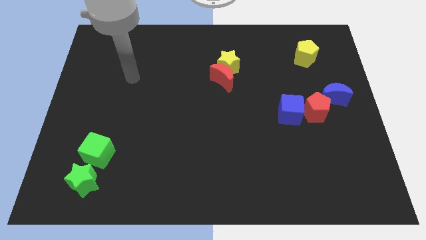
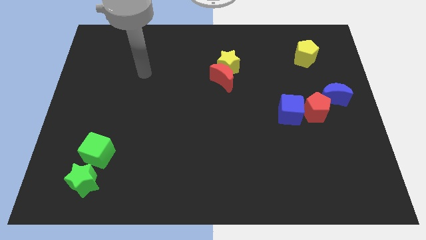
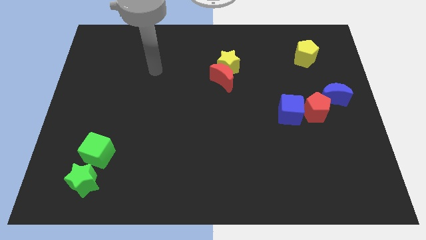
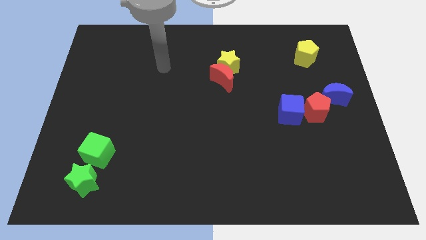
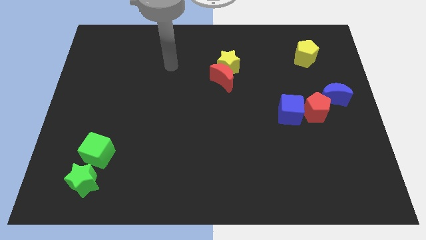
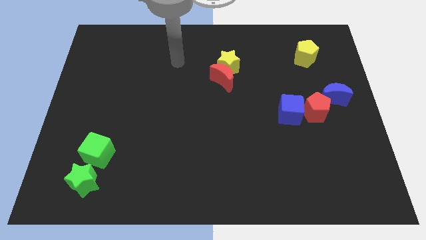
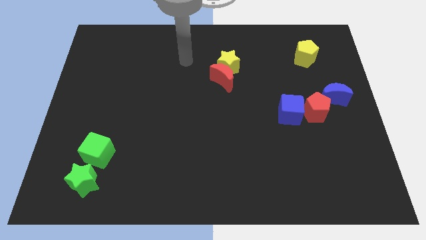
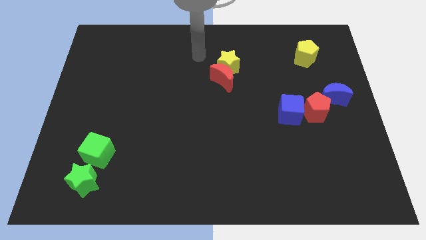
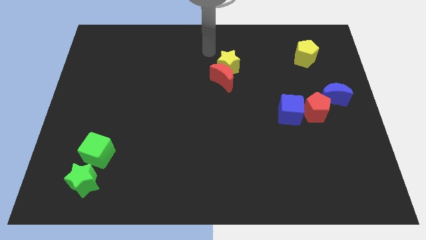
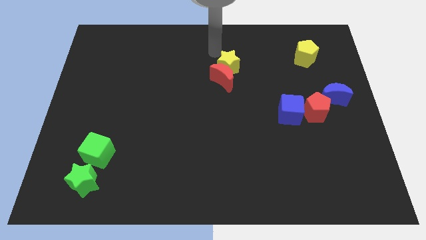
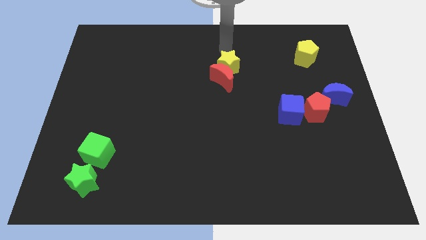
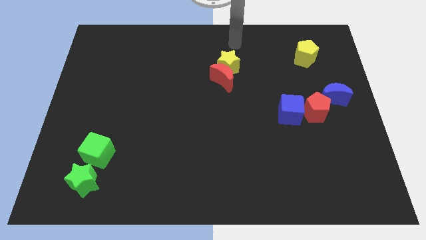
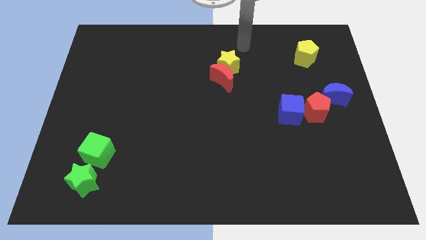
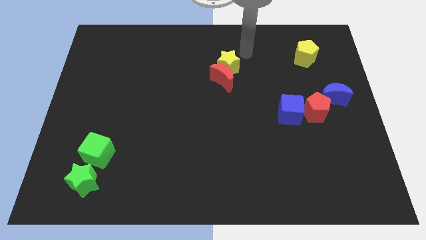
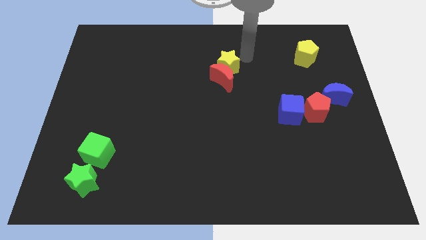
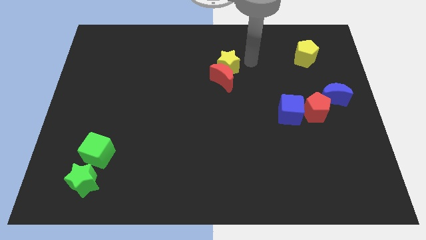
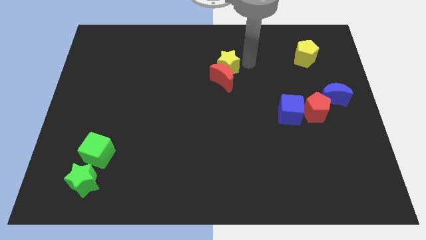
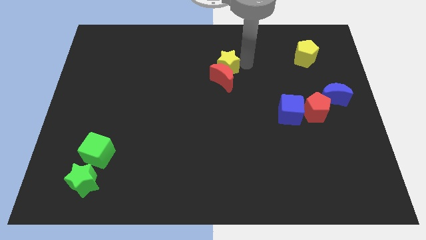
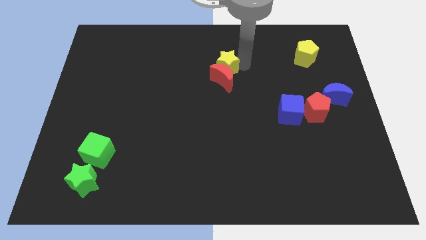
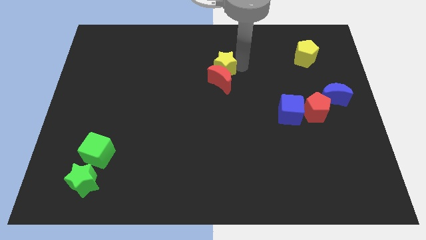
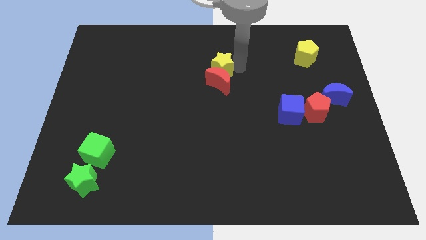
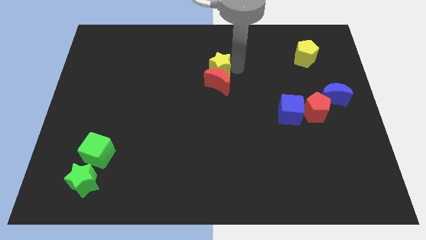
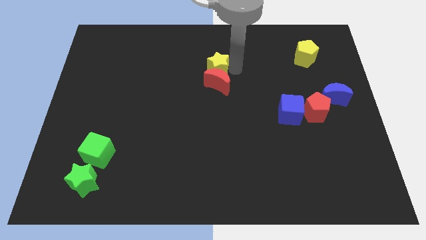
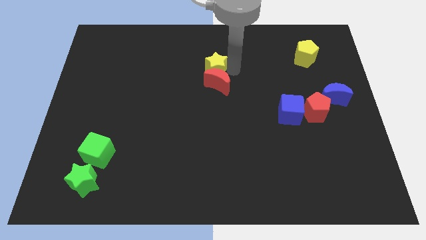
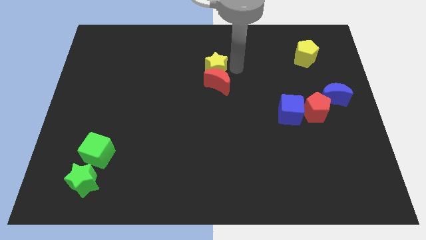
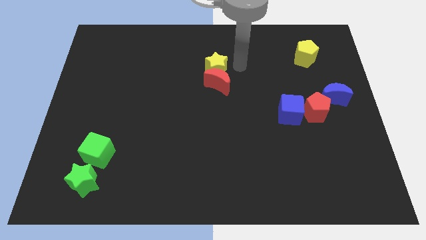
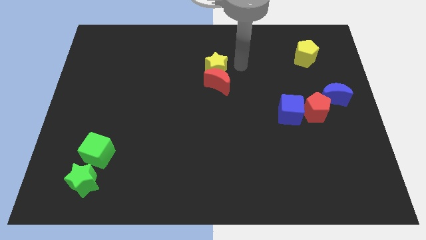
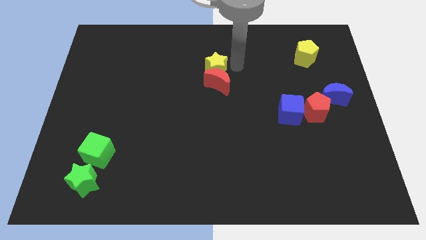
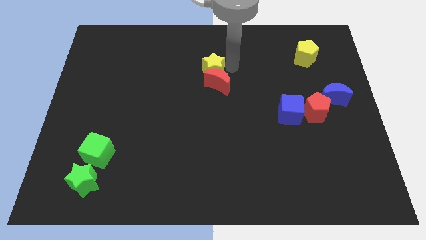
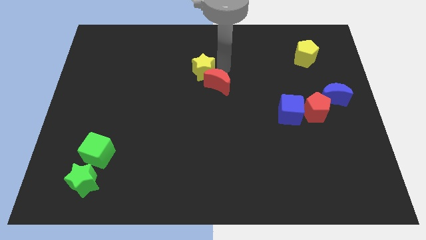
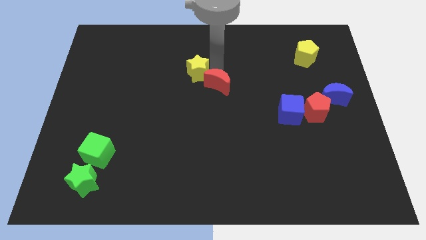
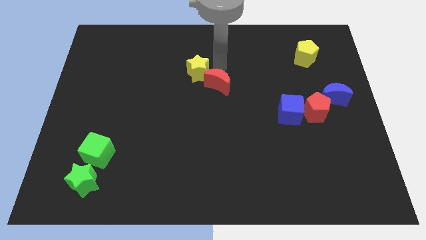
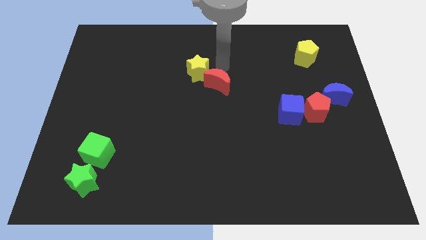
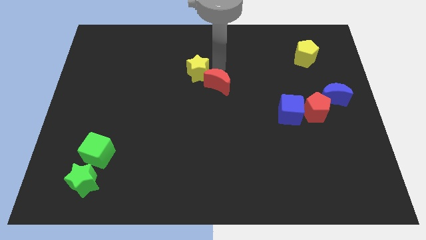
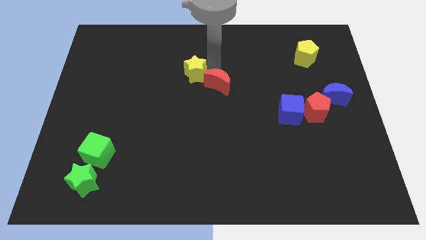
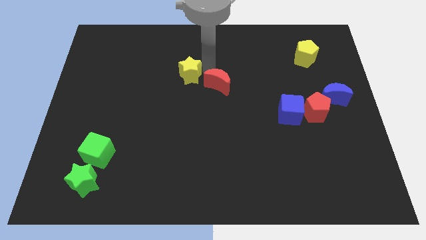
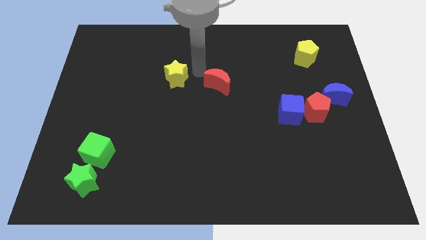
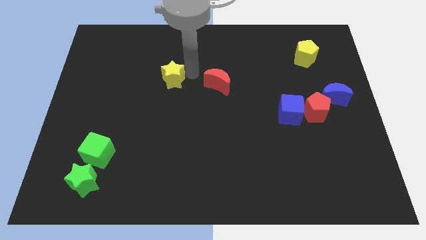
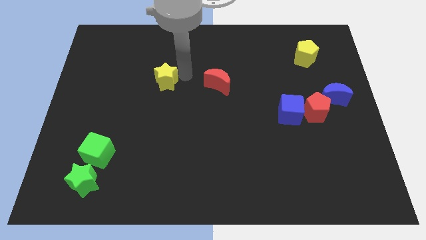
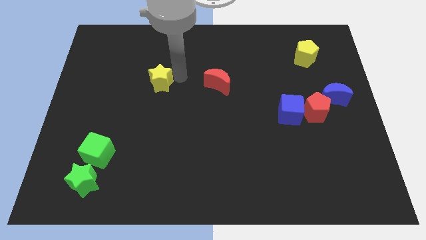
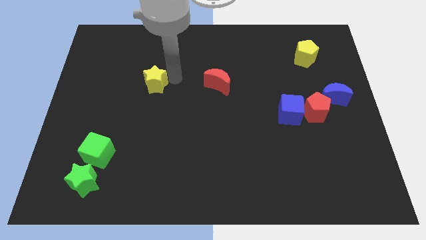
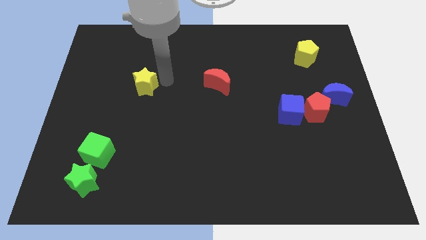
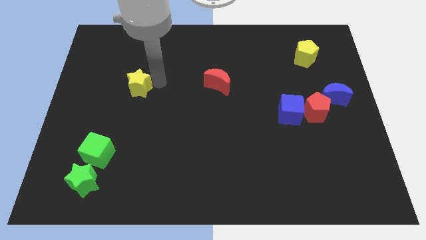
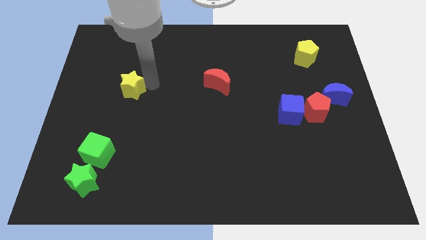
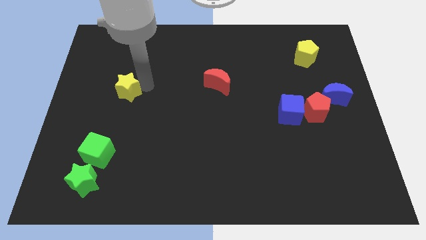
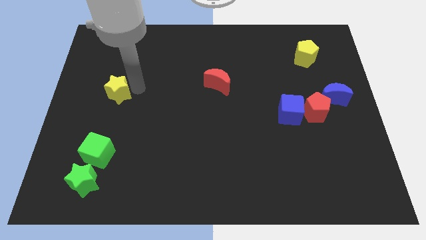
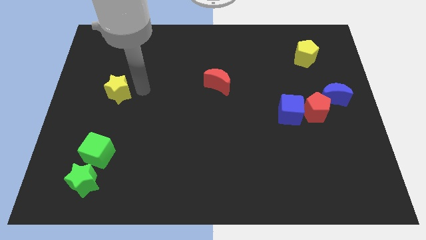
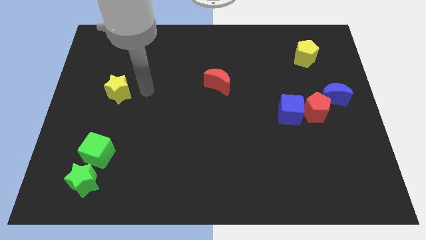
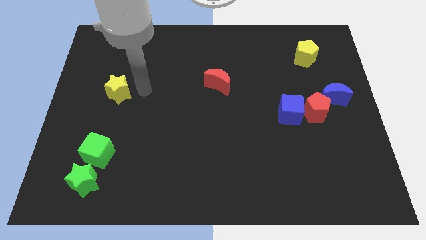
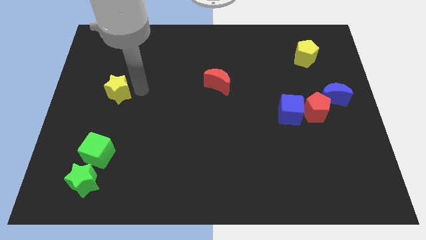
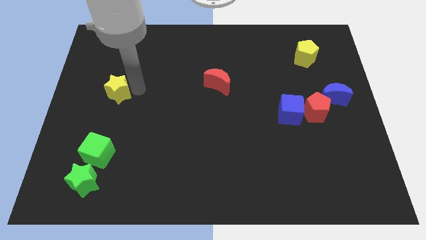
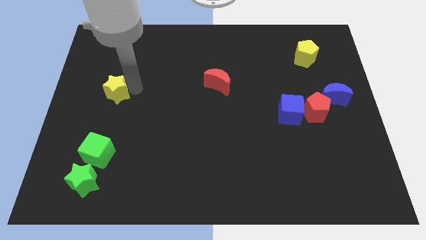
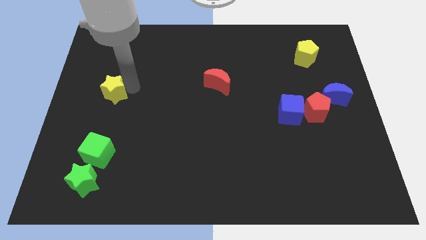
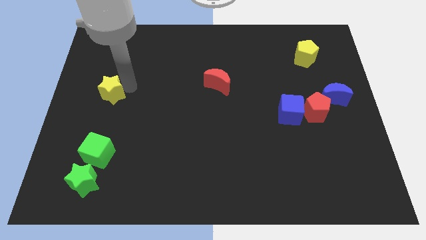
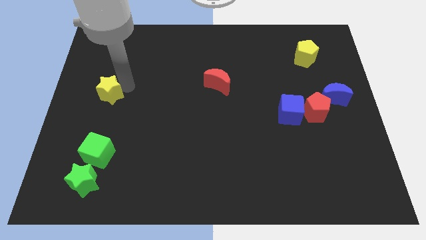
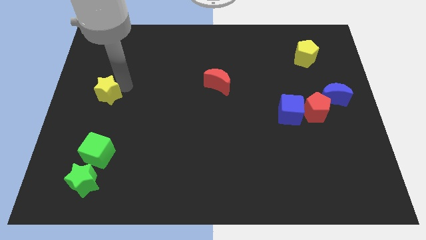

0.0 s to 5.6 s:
move the yellow star to the left side

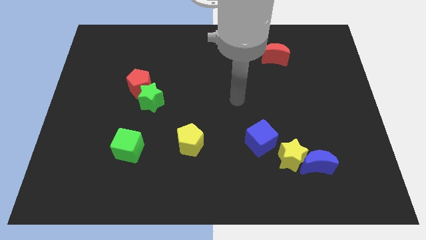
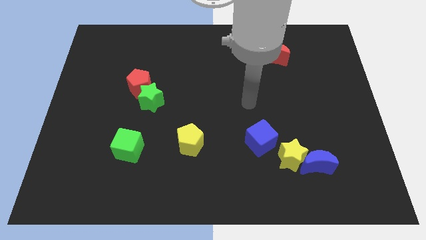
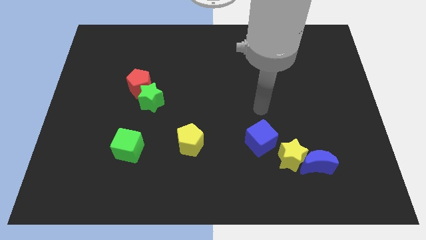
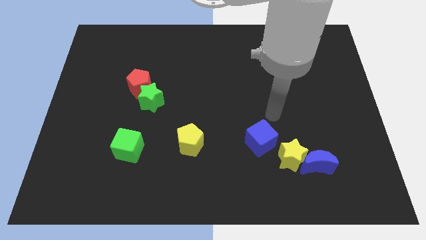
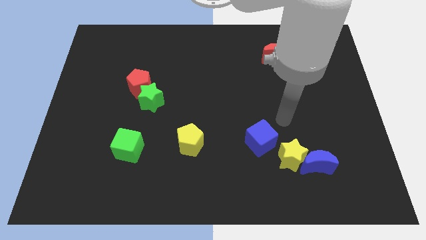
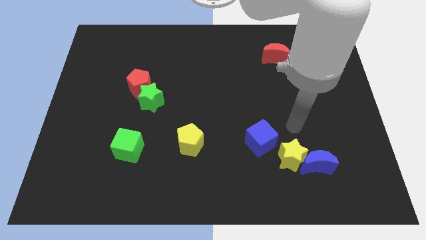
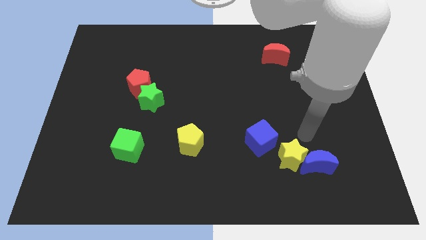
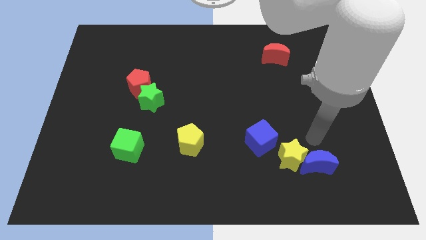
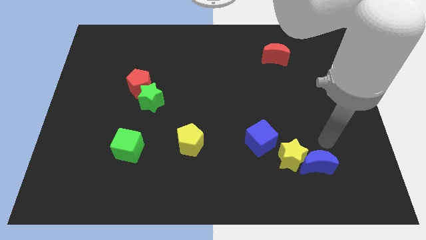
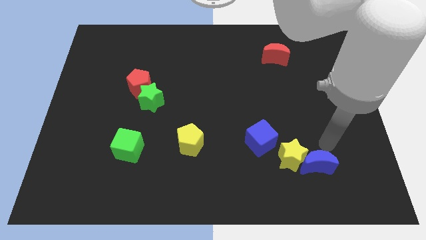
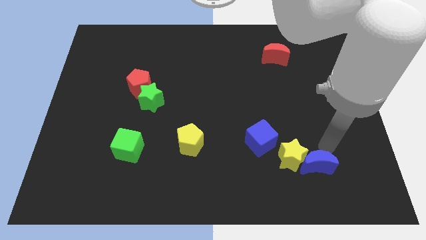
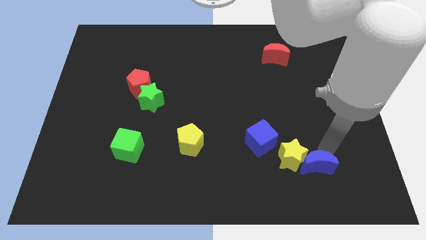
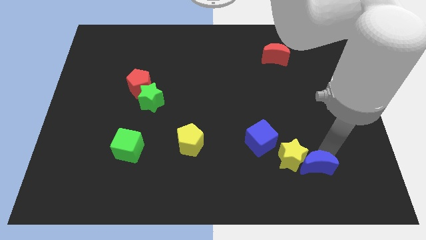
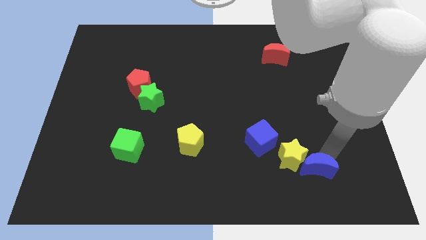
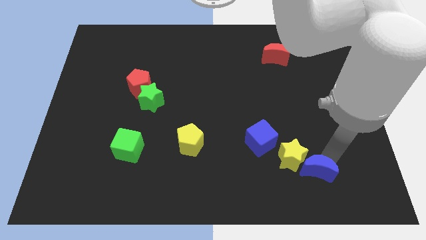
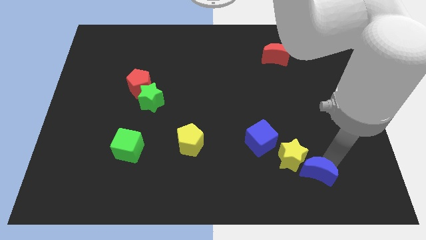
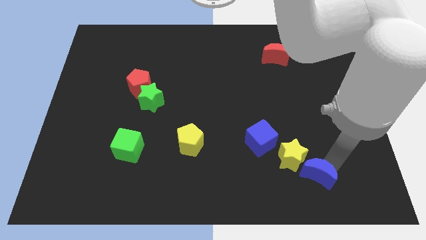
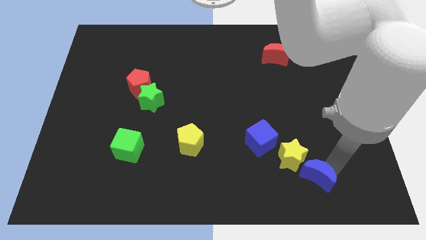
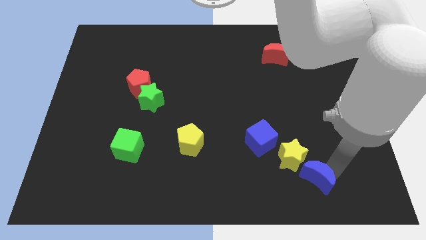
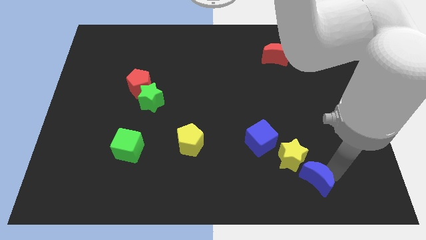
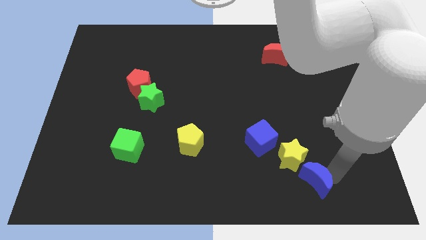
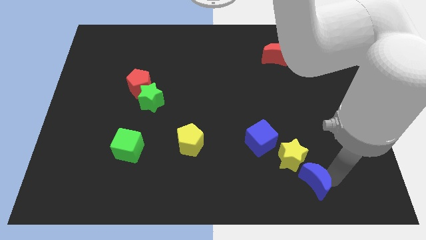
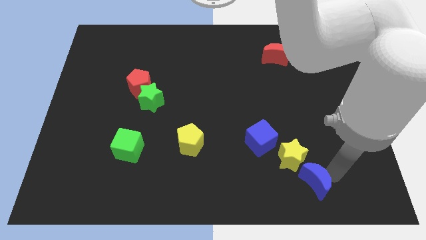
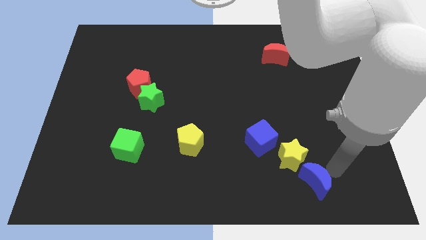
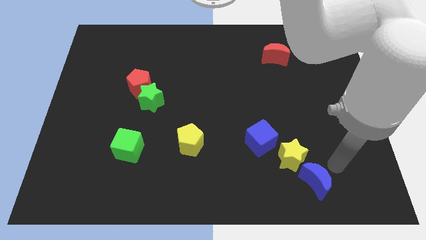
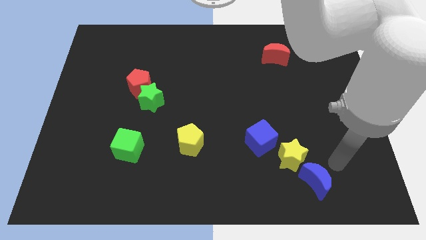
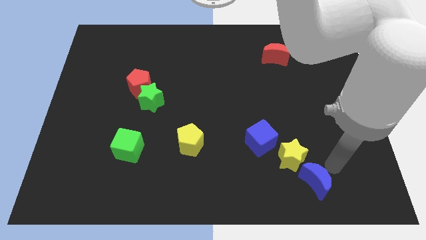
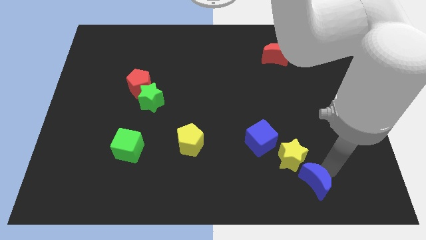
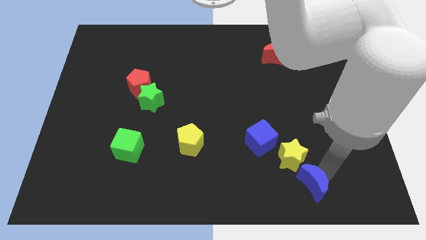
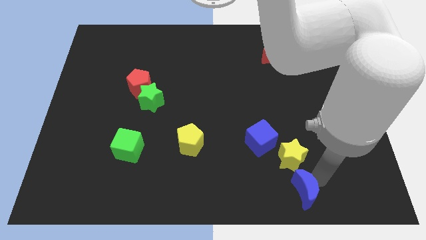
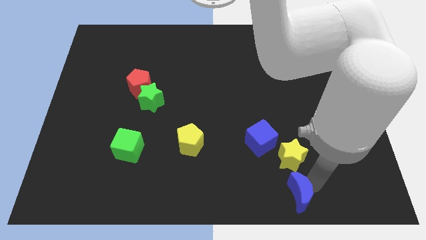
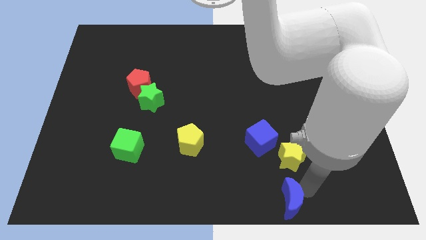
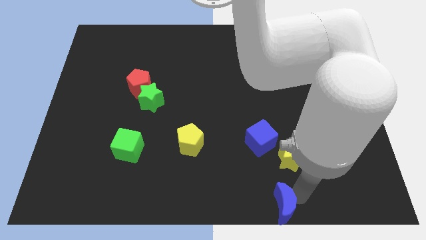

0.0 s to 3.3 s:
move the blue moon to the bottom side
